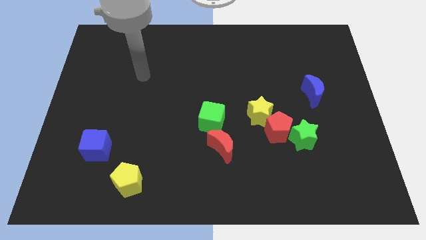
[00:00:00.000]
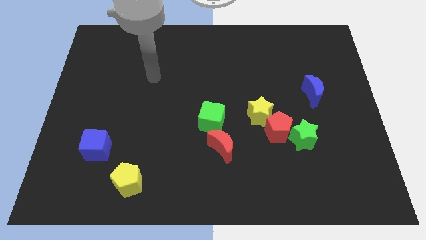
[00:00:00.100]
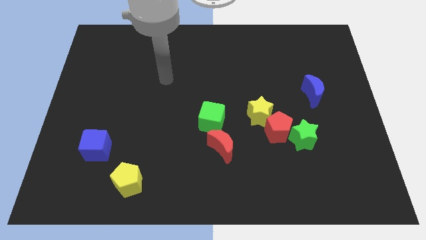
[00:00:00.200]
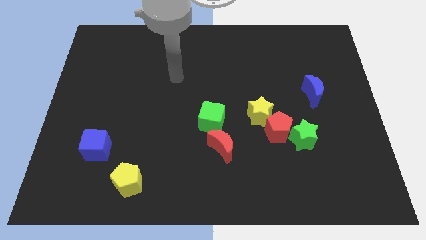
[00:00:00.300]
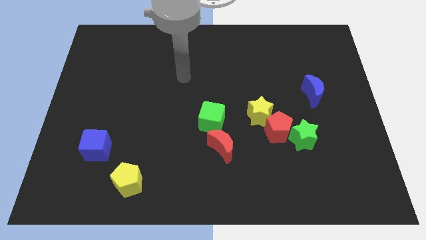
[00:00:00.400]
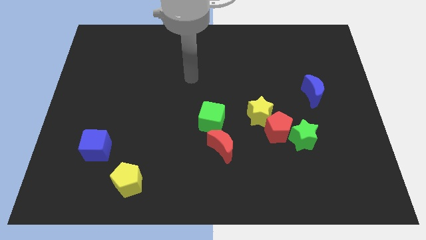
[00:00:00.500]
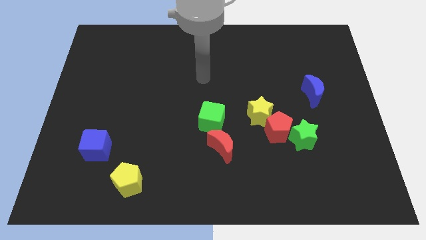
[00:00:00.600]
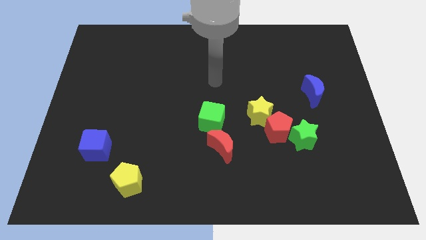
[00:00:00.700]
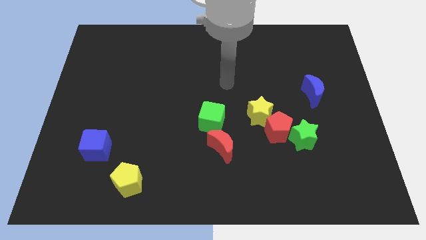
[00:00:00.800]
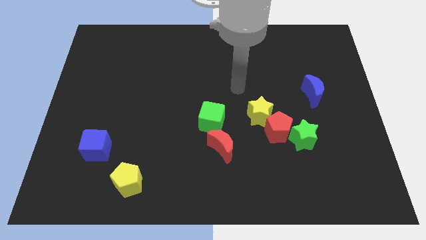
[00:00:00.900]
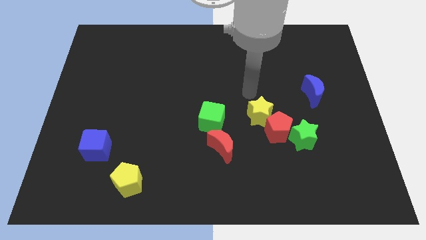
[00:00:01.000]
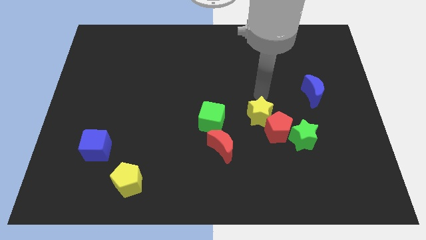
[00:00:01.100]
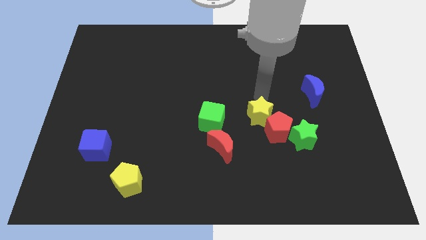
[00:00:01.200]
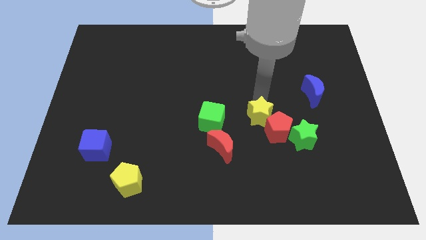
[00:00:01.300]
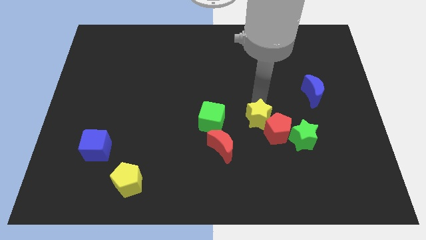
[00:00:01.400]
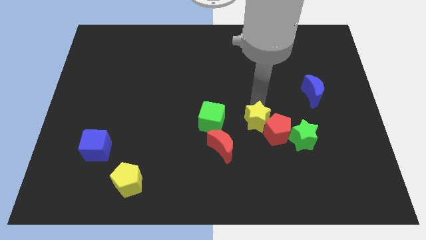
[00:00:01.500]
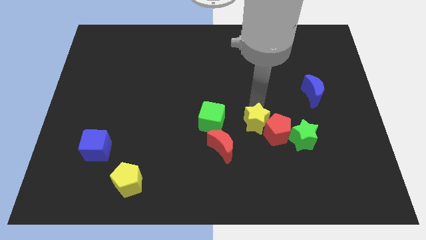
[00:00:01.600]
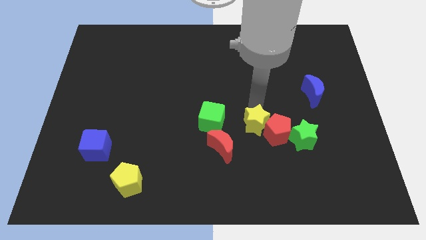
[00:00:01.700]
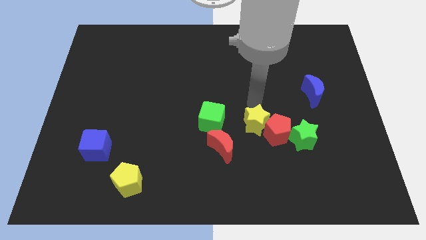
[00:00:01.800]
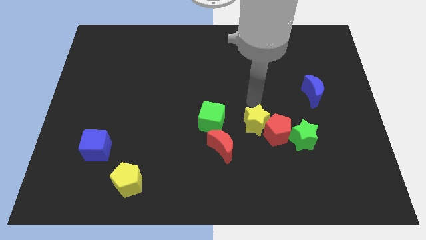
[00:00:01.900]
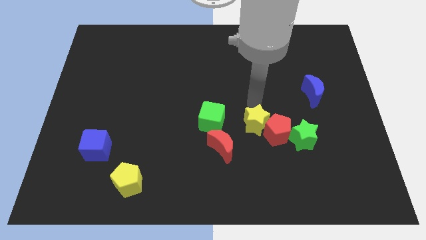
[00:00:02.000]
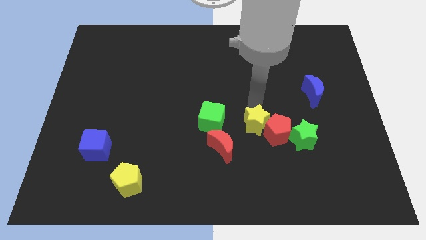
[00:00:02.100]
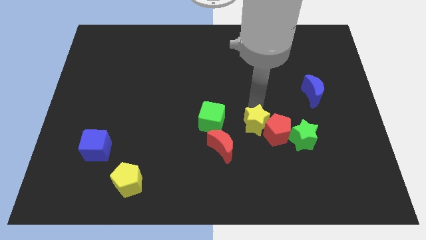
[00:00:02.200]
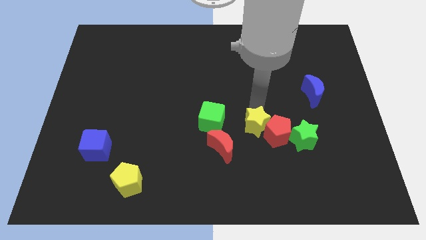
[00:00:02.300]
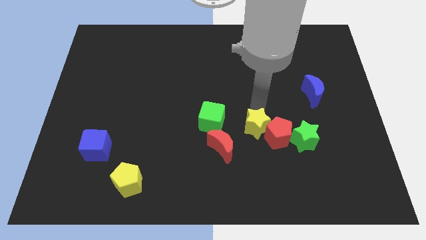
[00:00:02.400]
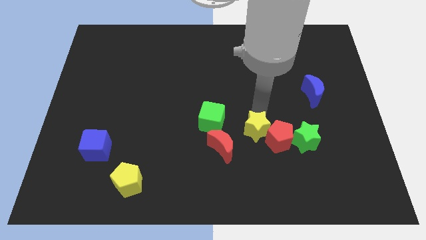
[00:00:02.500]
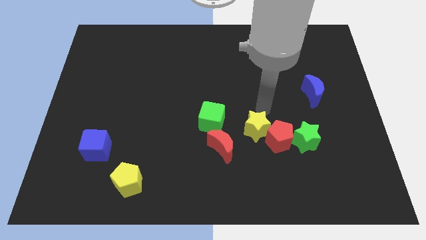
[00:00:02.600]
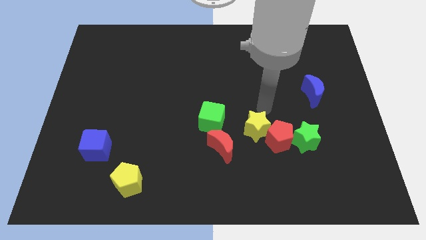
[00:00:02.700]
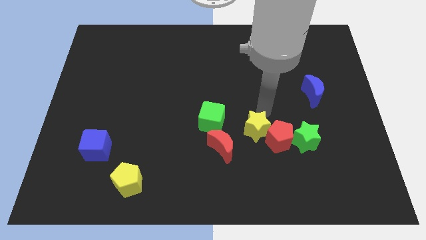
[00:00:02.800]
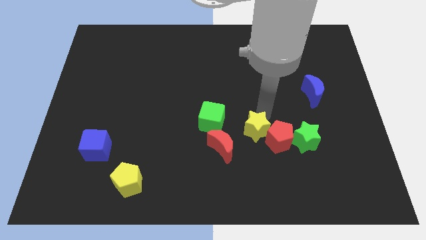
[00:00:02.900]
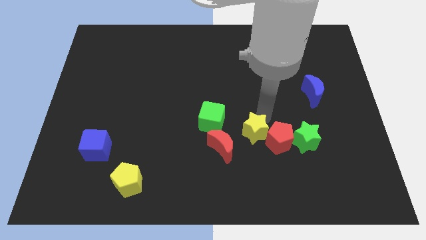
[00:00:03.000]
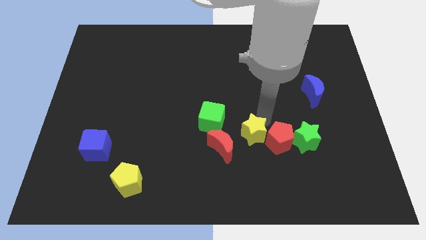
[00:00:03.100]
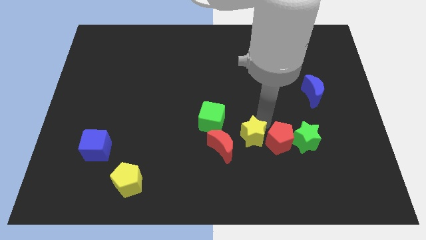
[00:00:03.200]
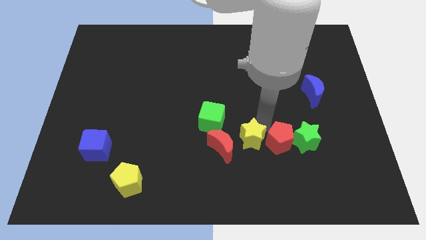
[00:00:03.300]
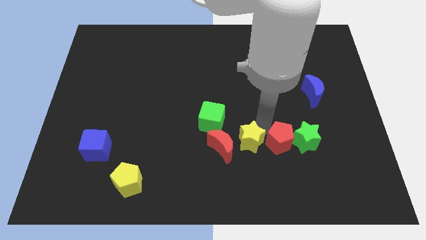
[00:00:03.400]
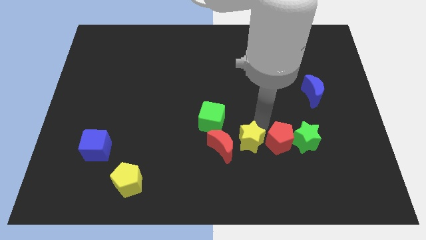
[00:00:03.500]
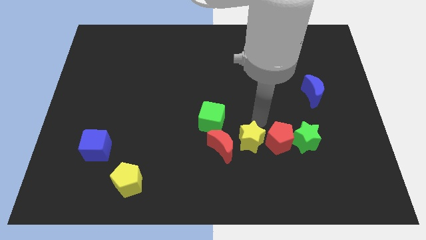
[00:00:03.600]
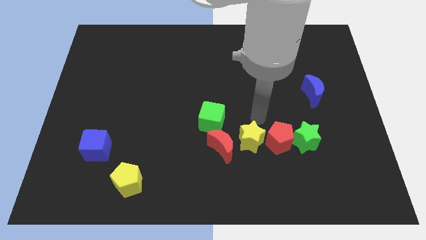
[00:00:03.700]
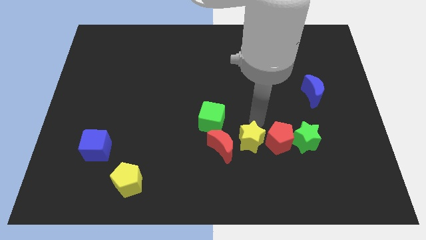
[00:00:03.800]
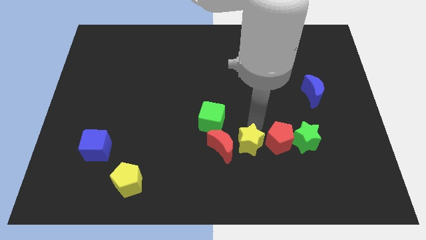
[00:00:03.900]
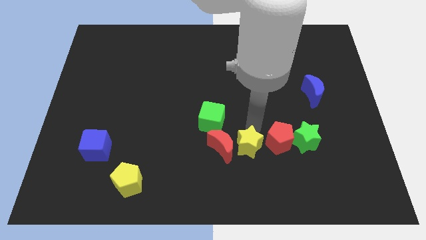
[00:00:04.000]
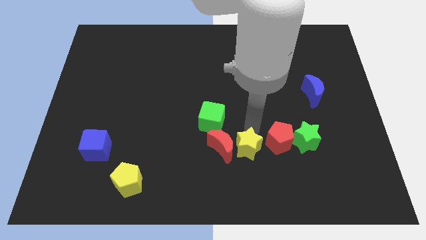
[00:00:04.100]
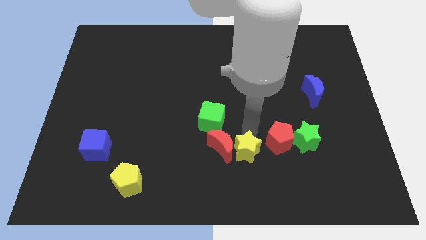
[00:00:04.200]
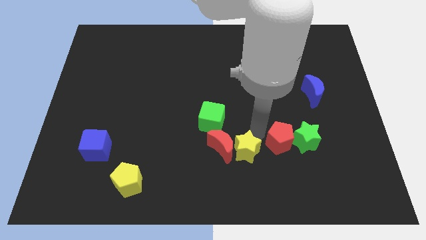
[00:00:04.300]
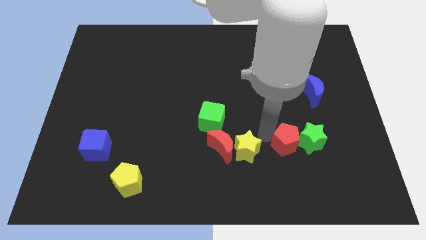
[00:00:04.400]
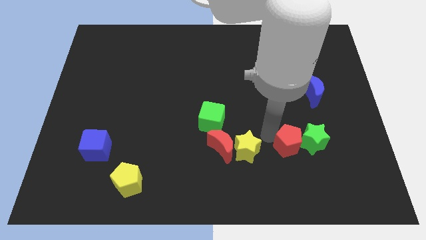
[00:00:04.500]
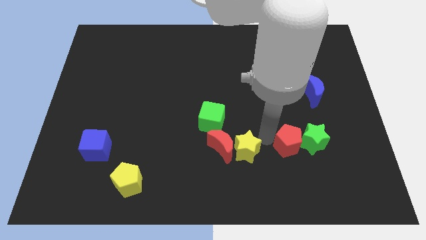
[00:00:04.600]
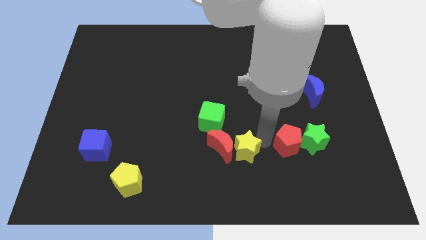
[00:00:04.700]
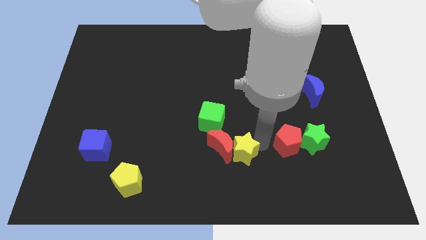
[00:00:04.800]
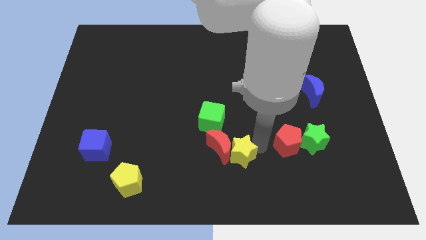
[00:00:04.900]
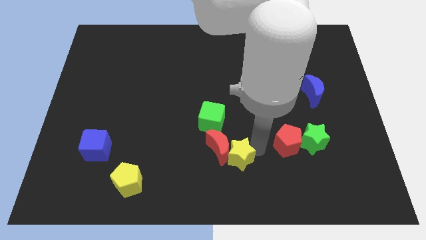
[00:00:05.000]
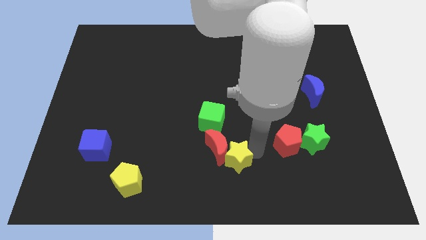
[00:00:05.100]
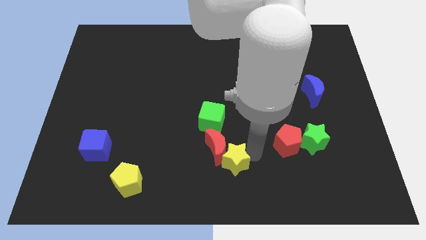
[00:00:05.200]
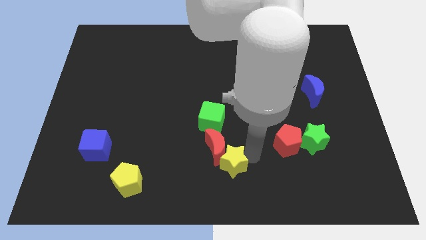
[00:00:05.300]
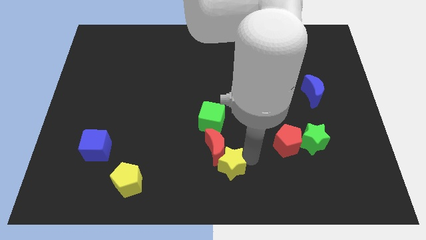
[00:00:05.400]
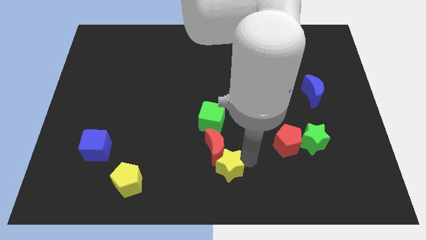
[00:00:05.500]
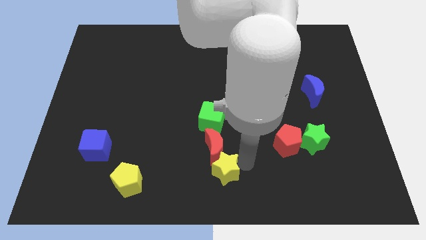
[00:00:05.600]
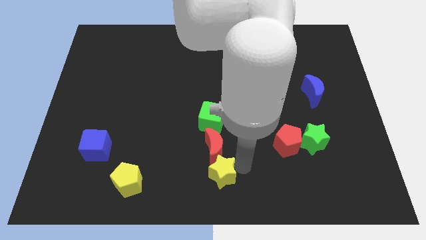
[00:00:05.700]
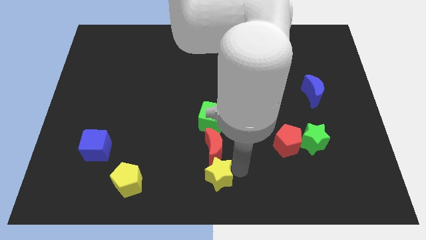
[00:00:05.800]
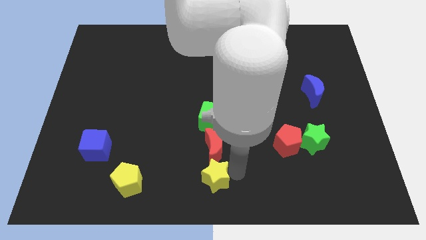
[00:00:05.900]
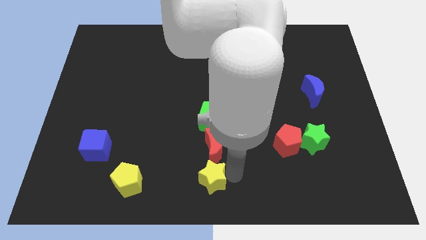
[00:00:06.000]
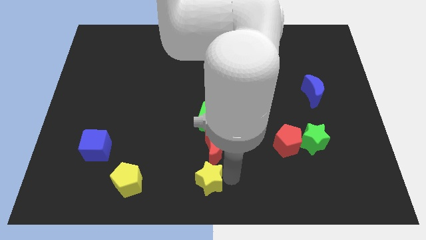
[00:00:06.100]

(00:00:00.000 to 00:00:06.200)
push the yellow star to the right of the yellow pentagon

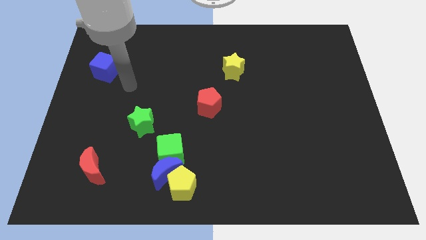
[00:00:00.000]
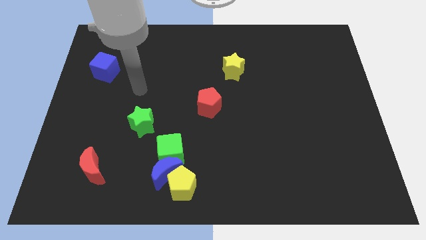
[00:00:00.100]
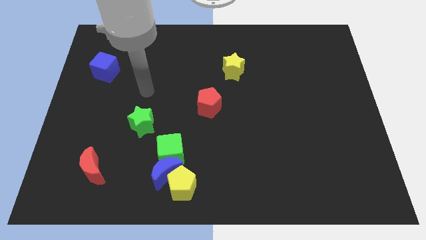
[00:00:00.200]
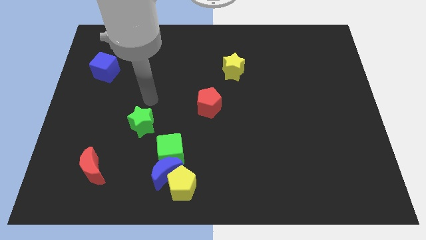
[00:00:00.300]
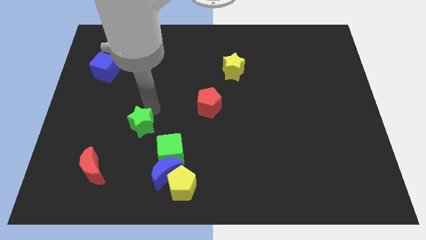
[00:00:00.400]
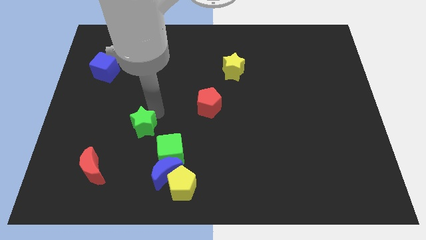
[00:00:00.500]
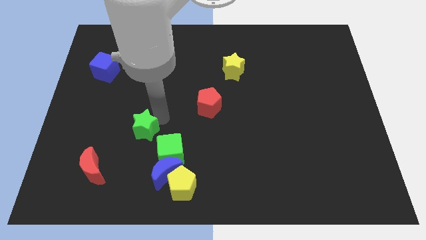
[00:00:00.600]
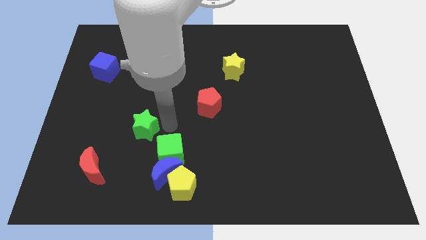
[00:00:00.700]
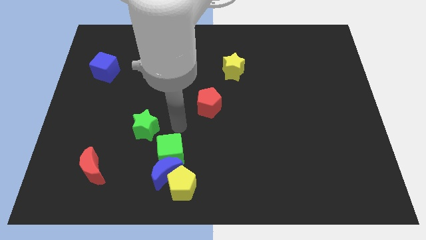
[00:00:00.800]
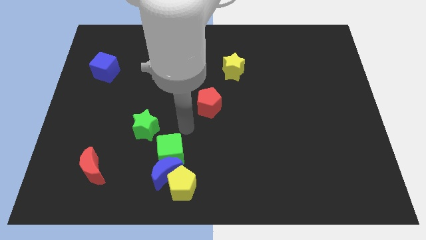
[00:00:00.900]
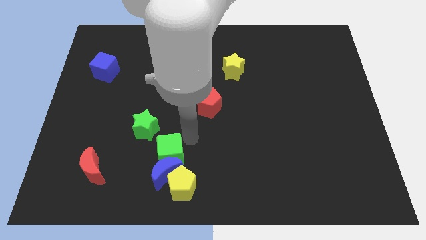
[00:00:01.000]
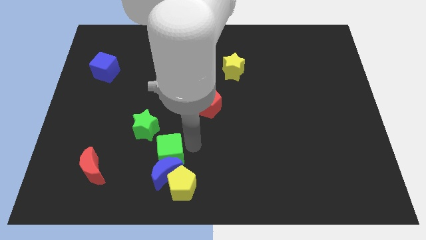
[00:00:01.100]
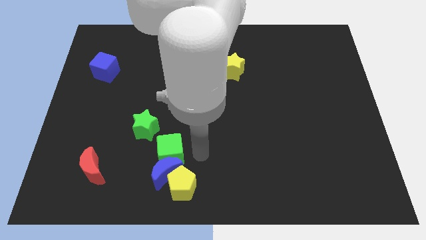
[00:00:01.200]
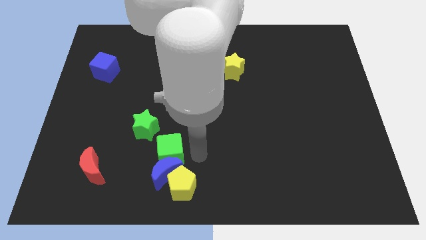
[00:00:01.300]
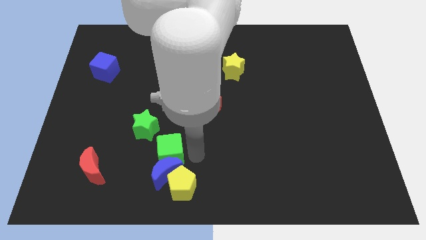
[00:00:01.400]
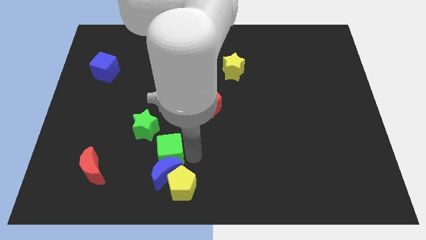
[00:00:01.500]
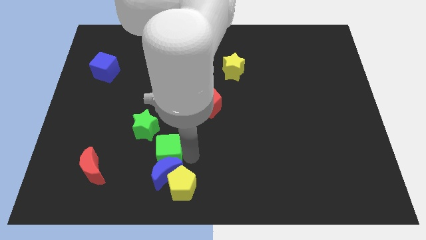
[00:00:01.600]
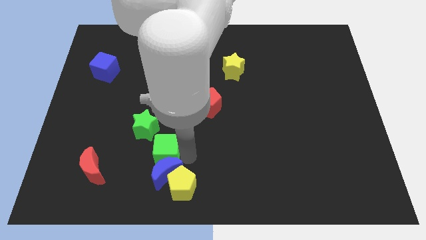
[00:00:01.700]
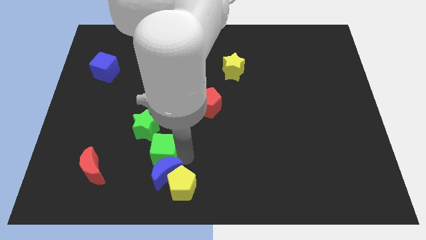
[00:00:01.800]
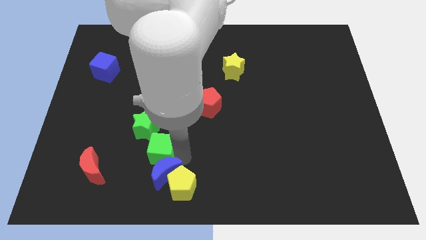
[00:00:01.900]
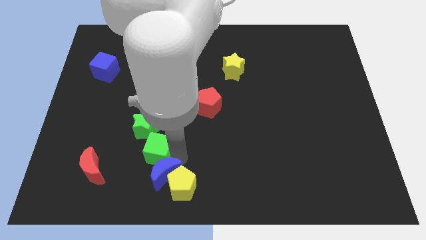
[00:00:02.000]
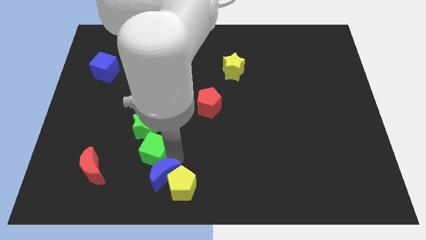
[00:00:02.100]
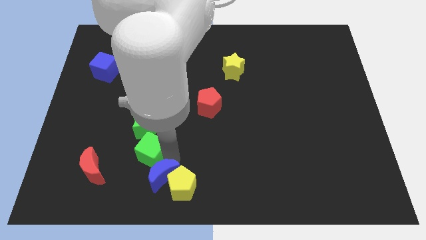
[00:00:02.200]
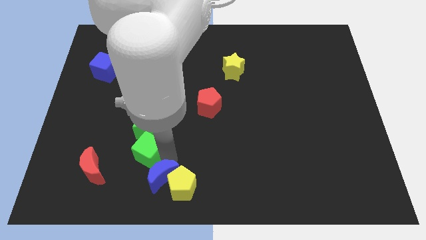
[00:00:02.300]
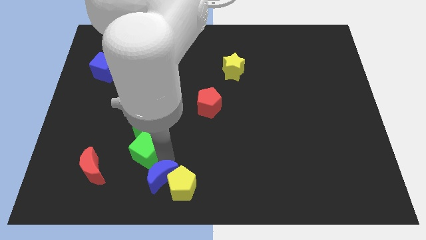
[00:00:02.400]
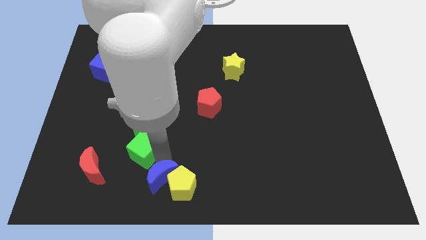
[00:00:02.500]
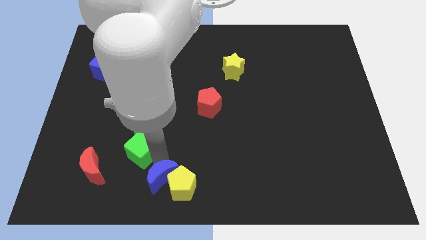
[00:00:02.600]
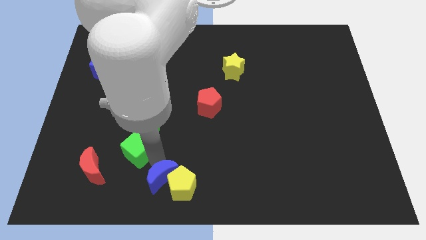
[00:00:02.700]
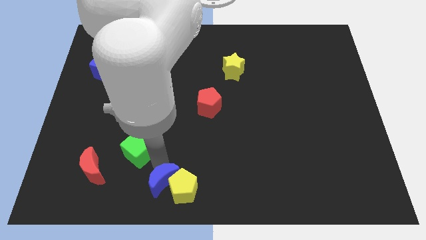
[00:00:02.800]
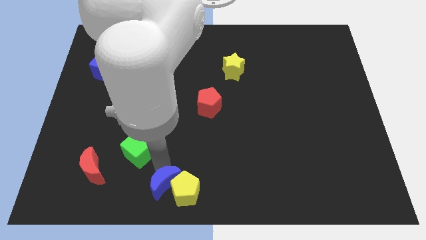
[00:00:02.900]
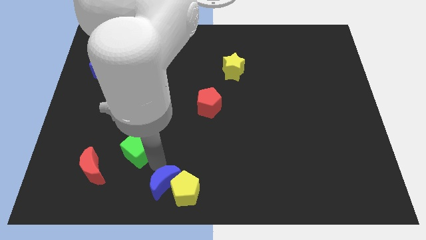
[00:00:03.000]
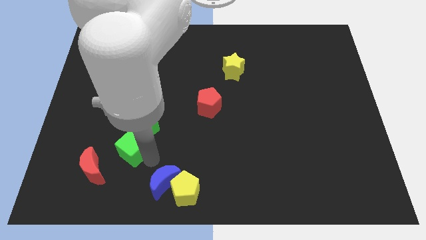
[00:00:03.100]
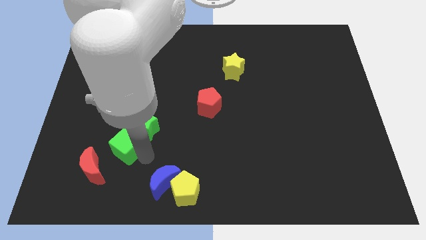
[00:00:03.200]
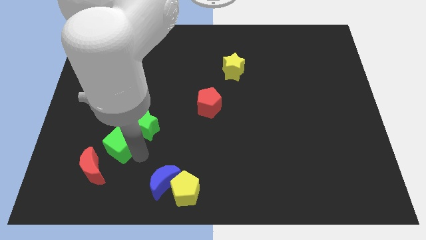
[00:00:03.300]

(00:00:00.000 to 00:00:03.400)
push the green cube left of the green star
